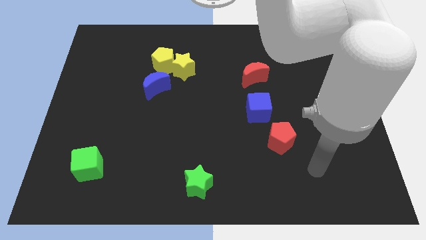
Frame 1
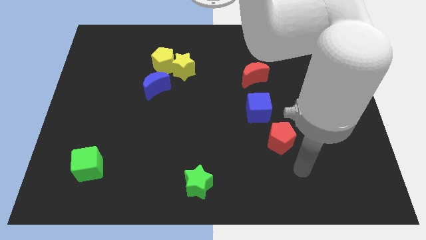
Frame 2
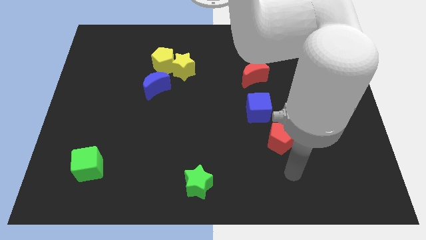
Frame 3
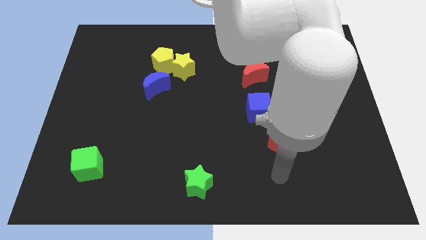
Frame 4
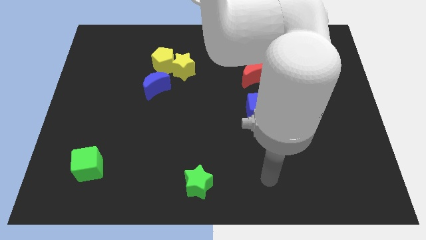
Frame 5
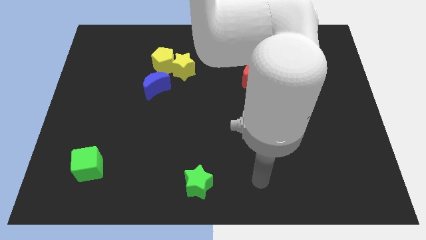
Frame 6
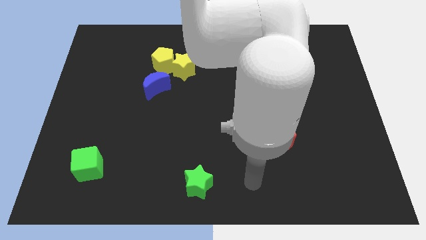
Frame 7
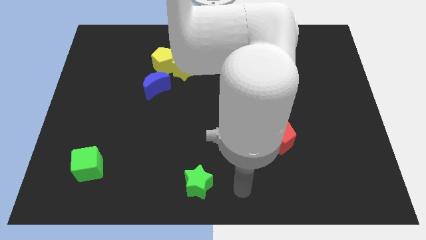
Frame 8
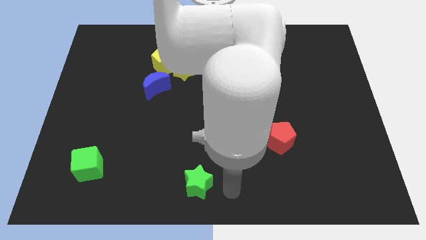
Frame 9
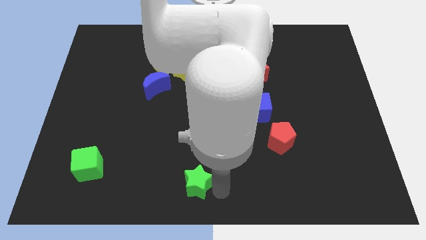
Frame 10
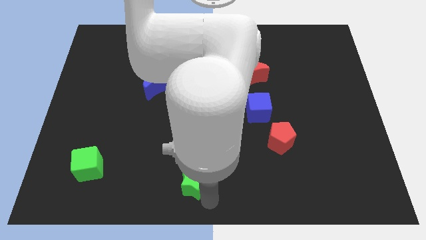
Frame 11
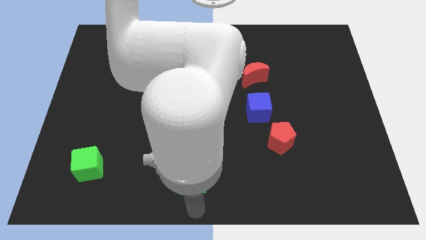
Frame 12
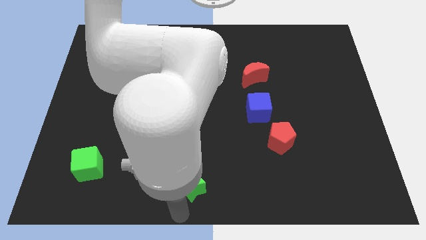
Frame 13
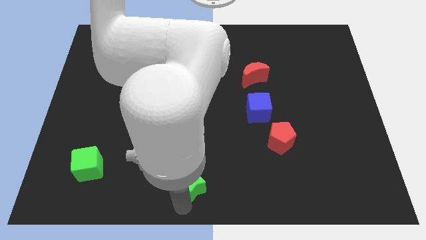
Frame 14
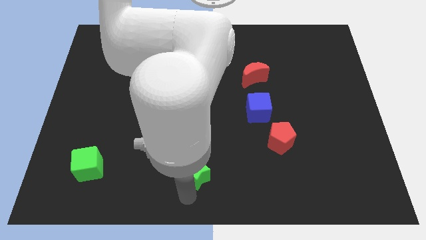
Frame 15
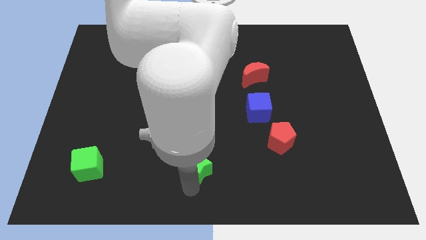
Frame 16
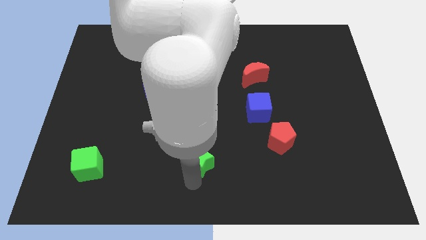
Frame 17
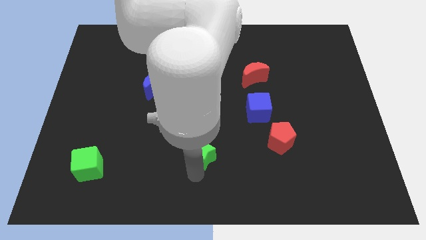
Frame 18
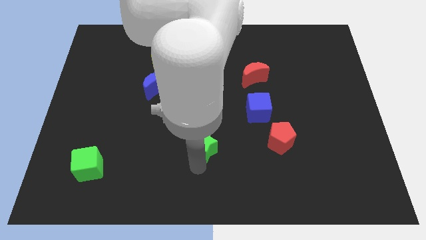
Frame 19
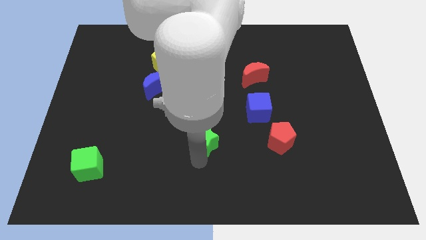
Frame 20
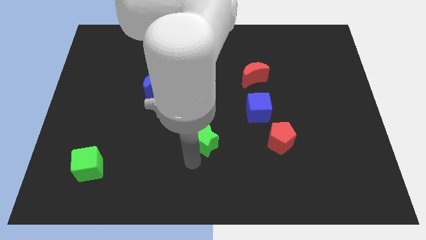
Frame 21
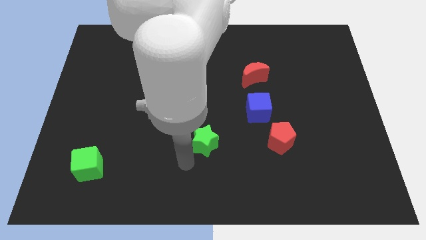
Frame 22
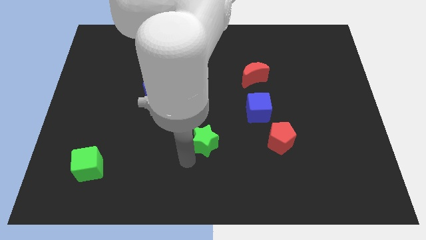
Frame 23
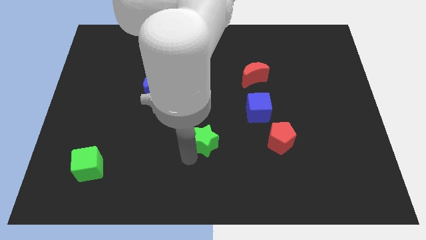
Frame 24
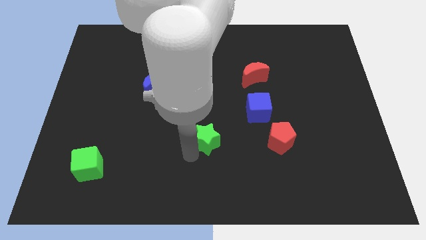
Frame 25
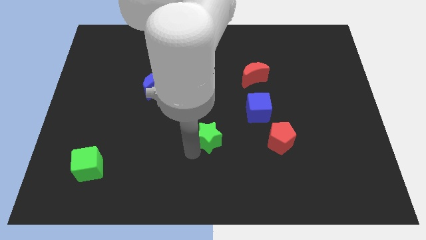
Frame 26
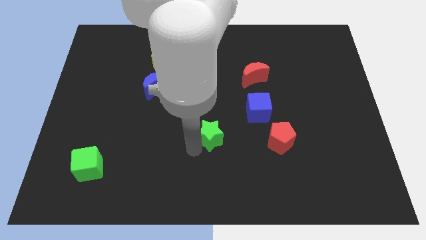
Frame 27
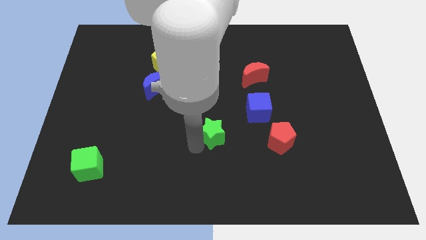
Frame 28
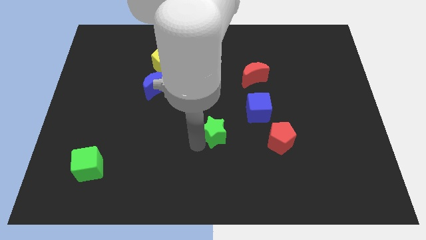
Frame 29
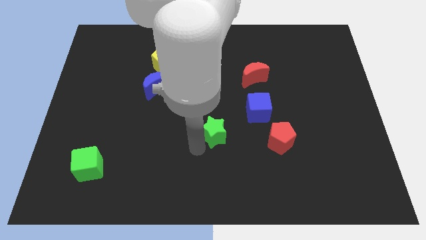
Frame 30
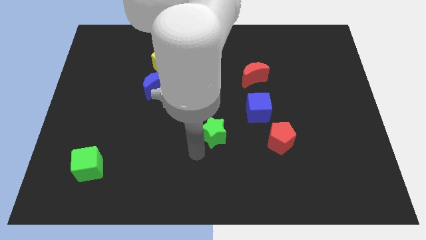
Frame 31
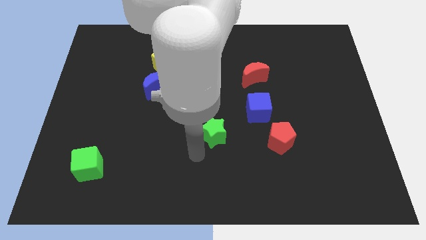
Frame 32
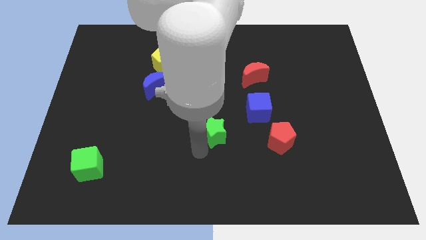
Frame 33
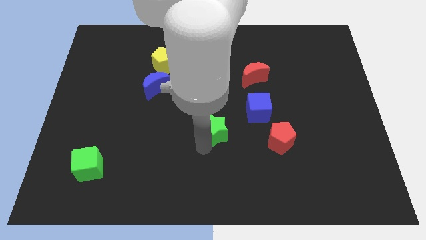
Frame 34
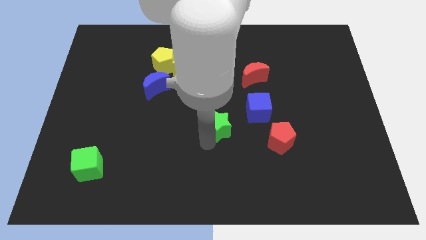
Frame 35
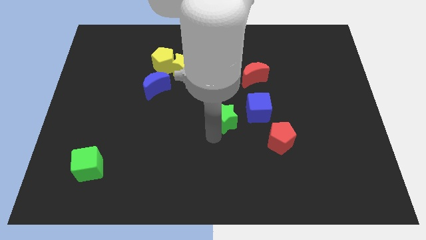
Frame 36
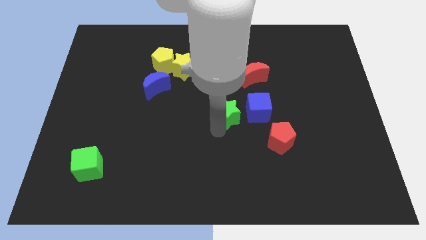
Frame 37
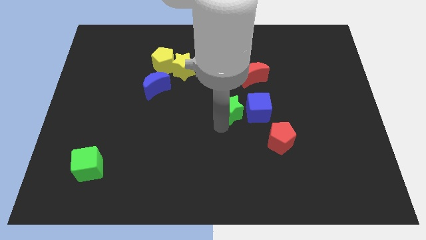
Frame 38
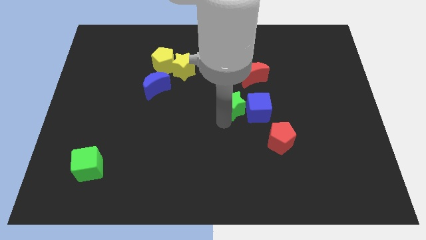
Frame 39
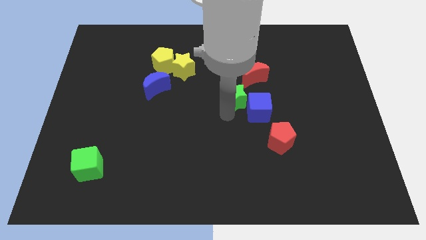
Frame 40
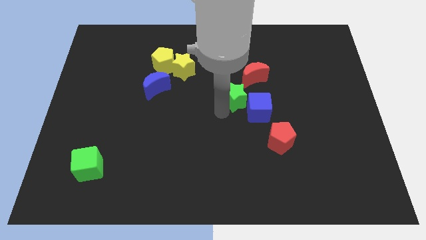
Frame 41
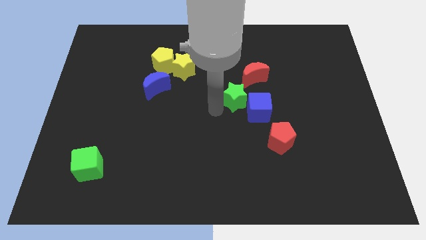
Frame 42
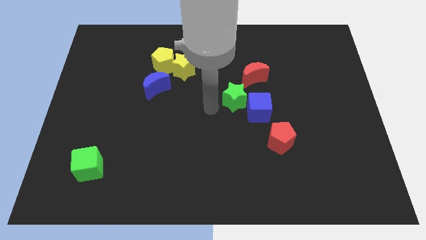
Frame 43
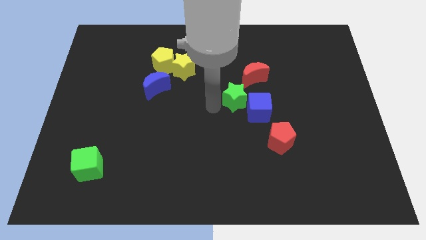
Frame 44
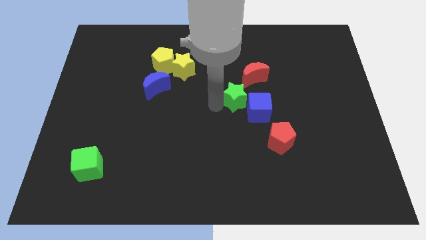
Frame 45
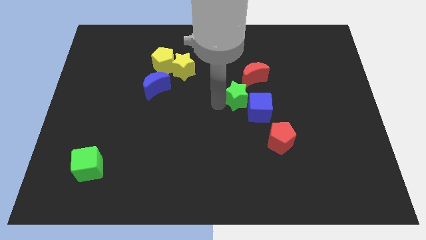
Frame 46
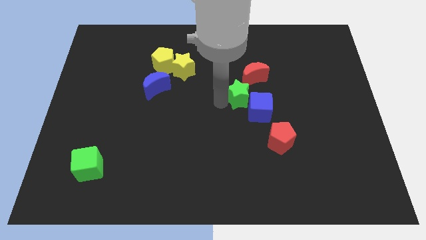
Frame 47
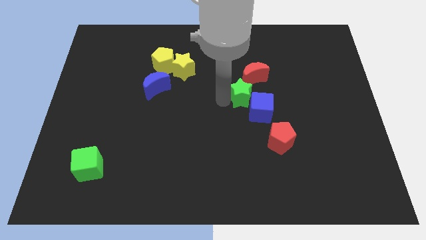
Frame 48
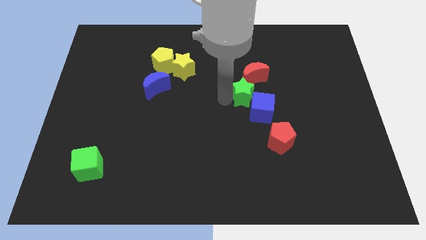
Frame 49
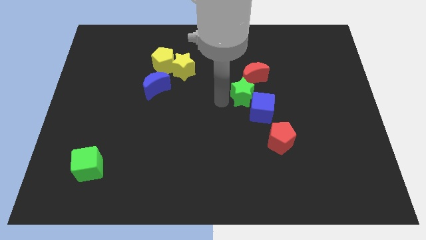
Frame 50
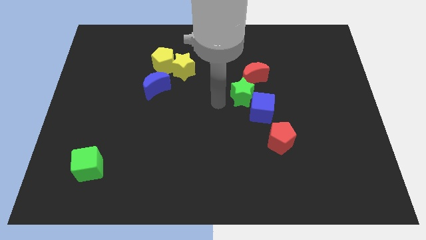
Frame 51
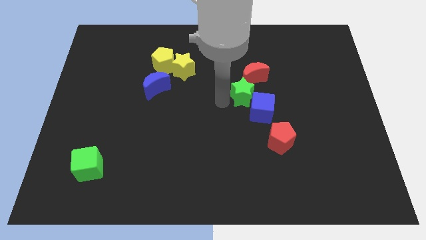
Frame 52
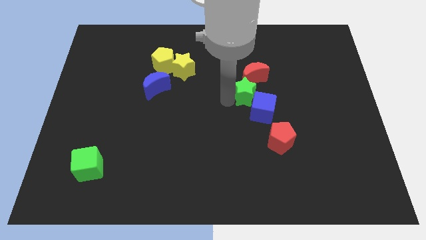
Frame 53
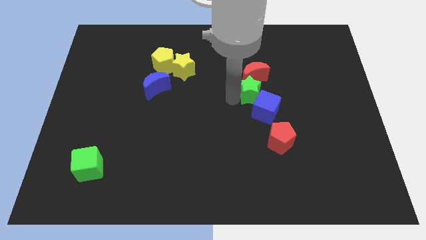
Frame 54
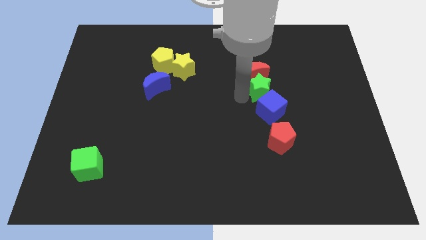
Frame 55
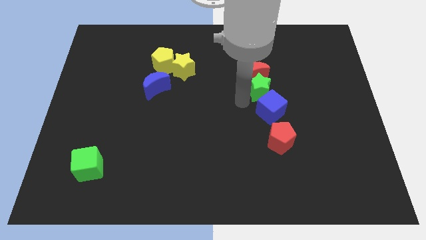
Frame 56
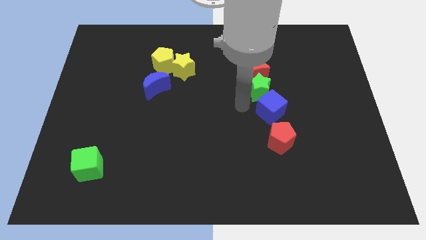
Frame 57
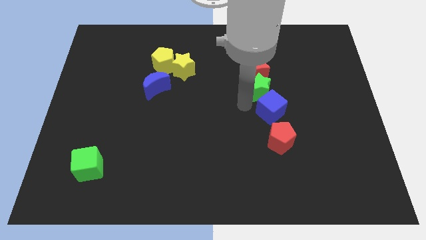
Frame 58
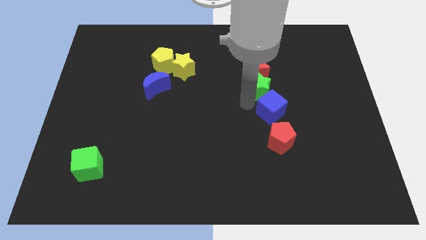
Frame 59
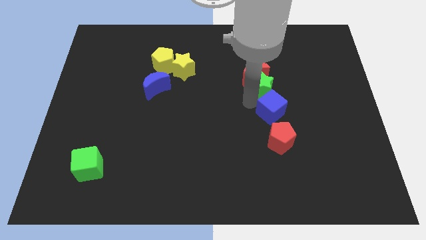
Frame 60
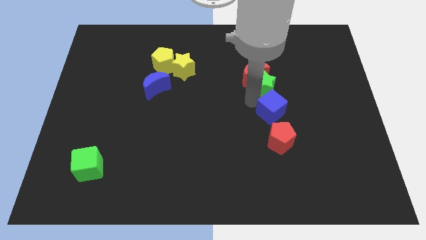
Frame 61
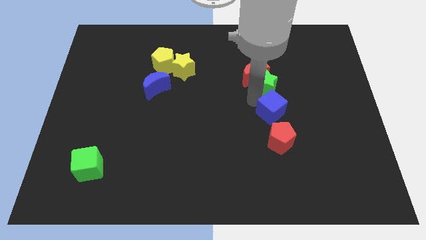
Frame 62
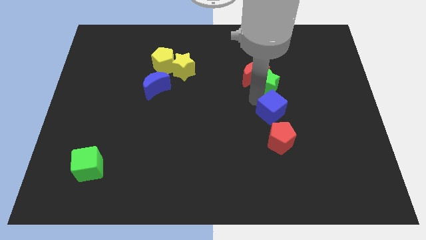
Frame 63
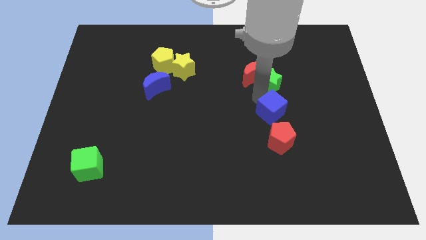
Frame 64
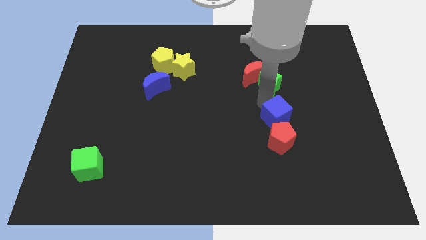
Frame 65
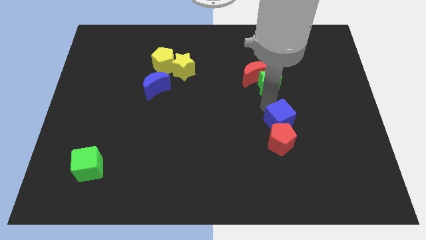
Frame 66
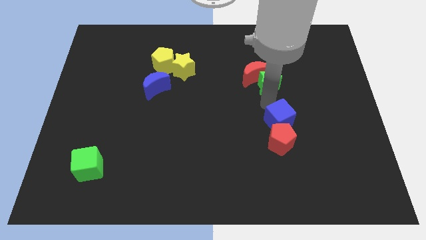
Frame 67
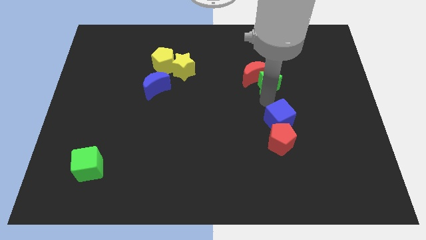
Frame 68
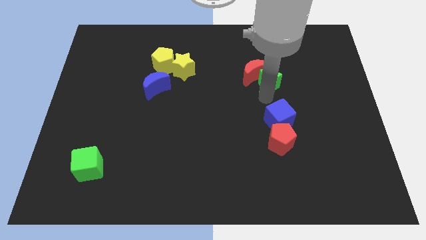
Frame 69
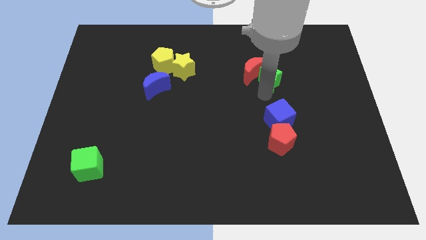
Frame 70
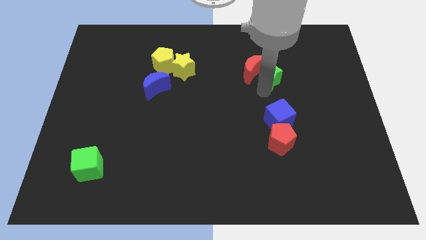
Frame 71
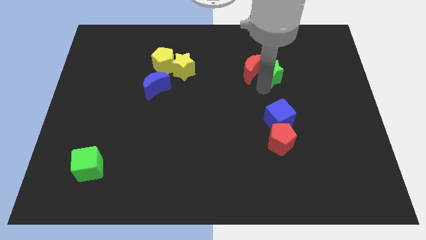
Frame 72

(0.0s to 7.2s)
push the green star to the top right of the red moon
